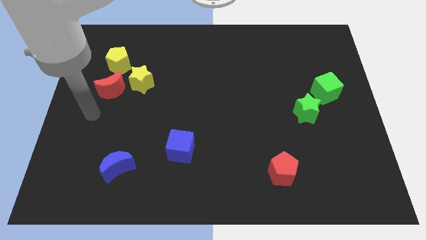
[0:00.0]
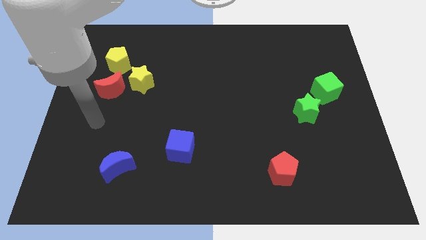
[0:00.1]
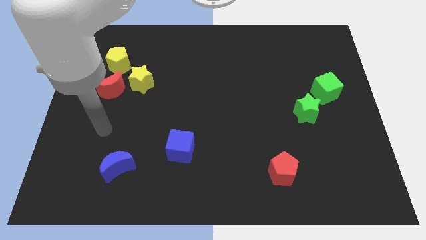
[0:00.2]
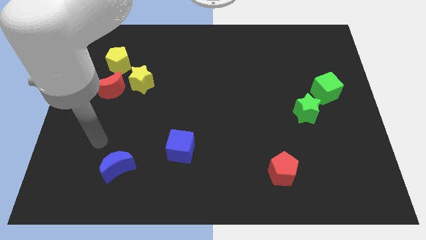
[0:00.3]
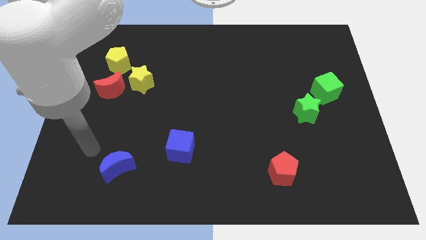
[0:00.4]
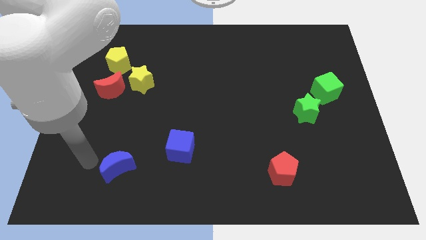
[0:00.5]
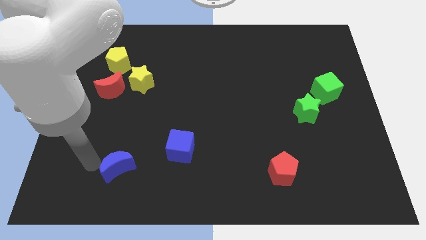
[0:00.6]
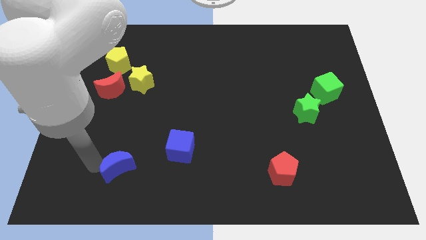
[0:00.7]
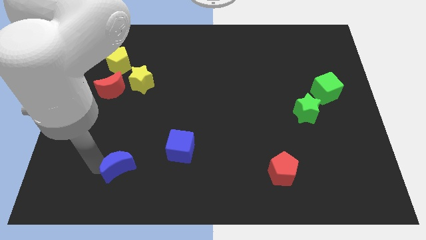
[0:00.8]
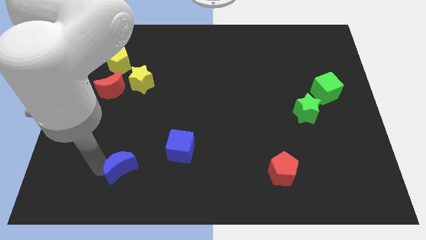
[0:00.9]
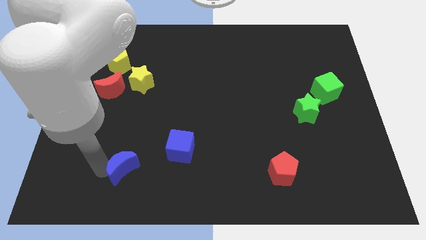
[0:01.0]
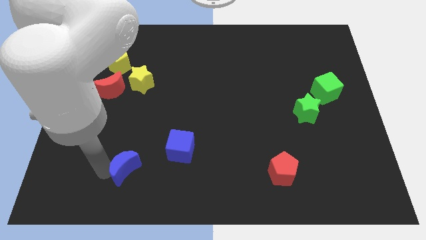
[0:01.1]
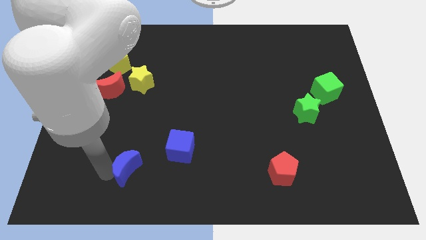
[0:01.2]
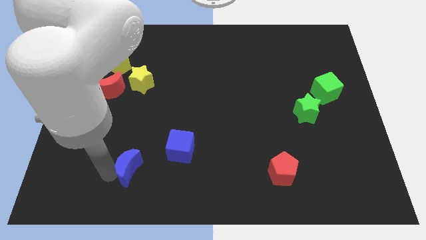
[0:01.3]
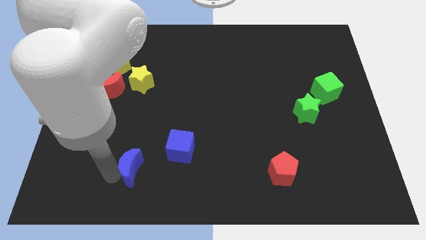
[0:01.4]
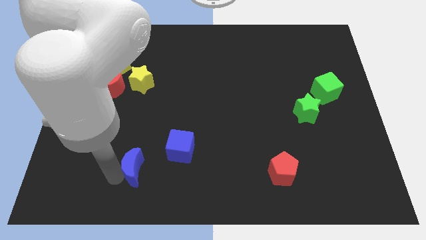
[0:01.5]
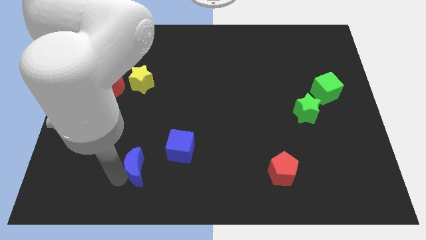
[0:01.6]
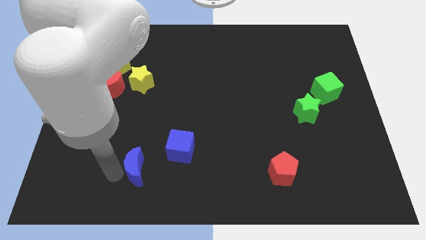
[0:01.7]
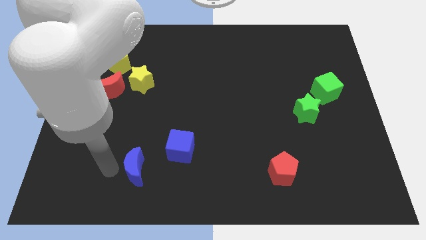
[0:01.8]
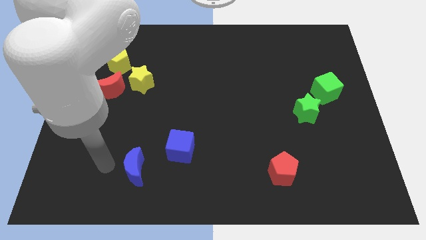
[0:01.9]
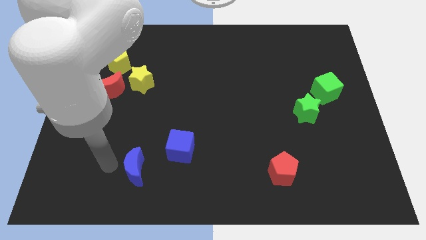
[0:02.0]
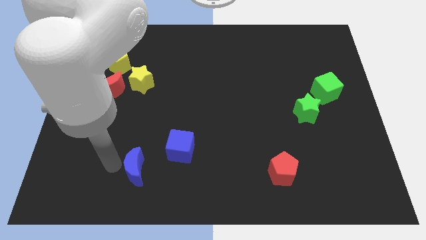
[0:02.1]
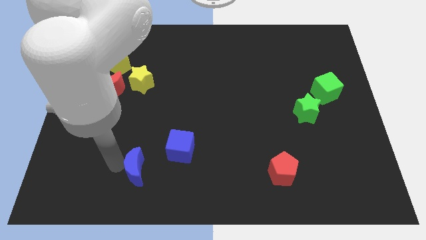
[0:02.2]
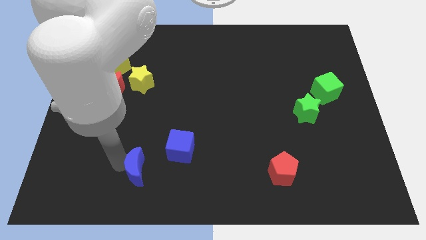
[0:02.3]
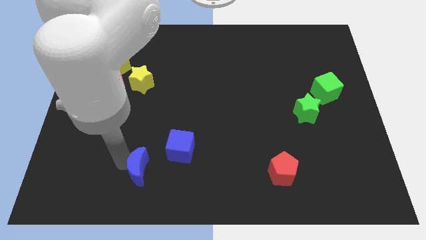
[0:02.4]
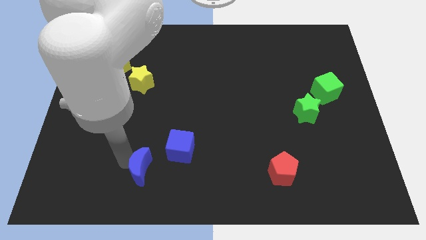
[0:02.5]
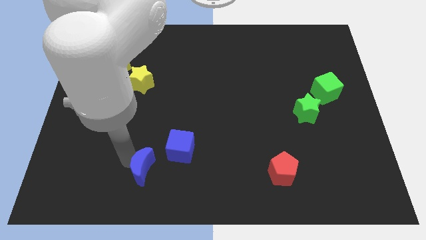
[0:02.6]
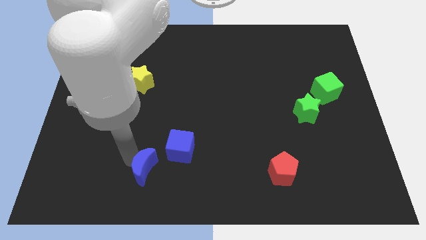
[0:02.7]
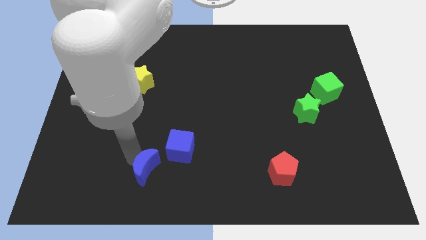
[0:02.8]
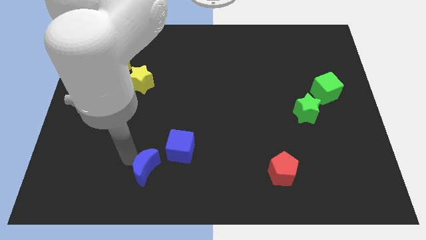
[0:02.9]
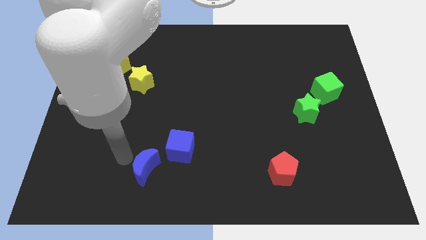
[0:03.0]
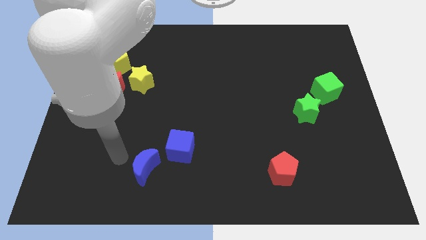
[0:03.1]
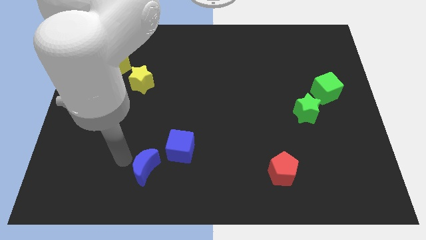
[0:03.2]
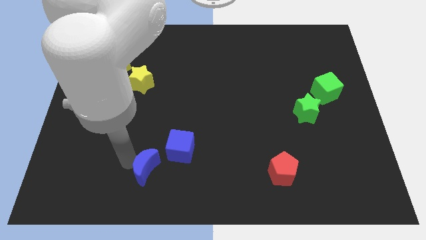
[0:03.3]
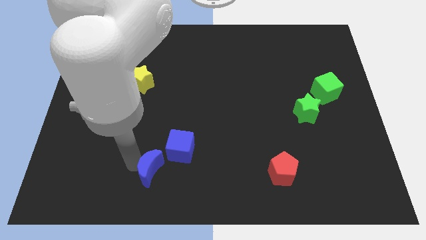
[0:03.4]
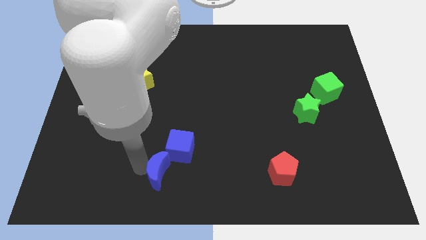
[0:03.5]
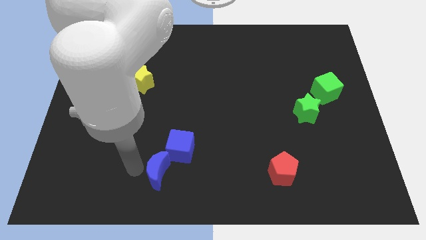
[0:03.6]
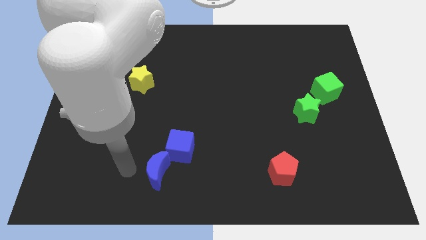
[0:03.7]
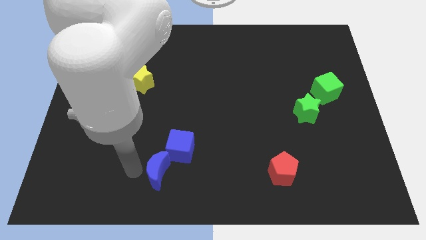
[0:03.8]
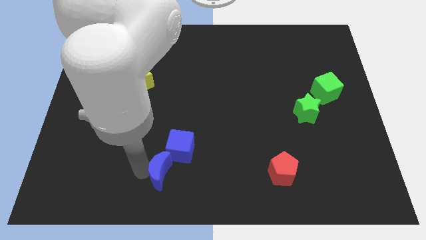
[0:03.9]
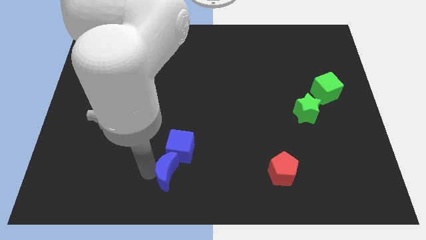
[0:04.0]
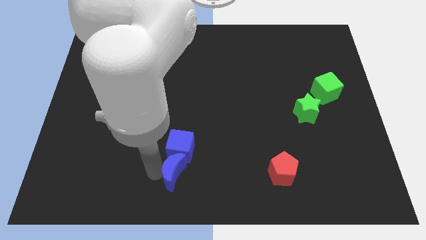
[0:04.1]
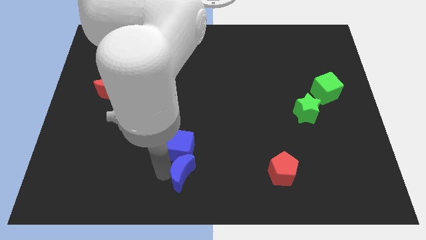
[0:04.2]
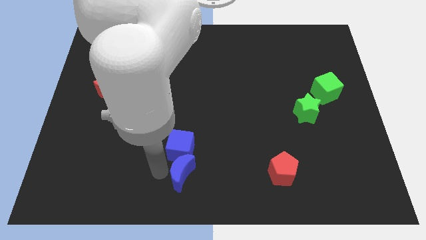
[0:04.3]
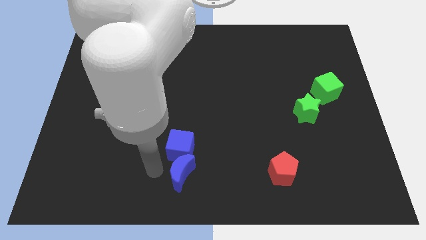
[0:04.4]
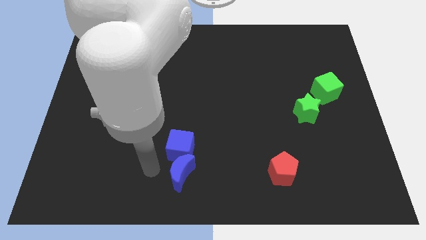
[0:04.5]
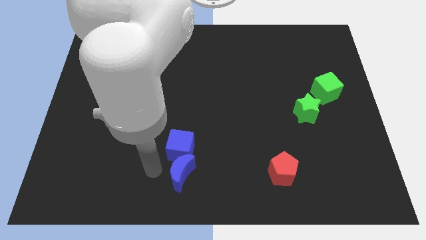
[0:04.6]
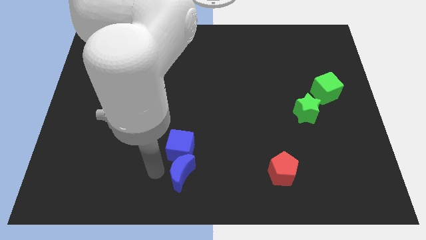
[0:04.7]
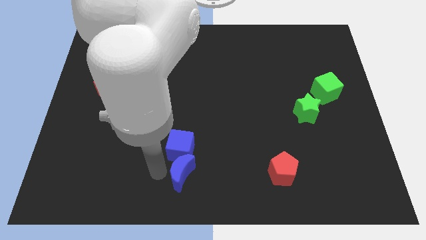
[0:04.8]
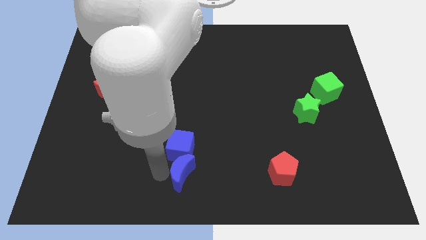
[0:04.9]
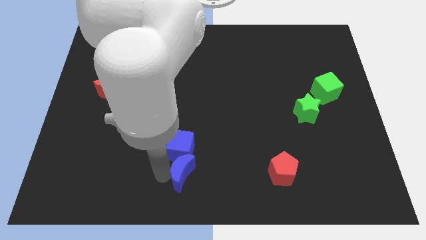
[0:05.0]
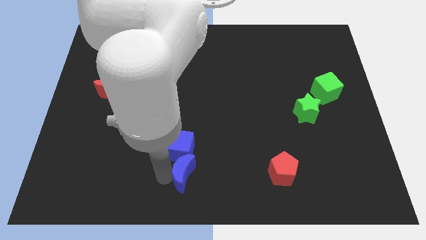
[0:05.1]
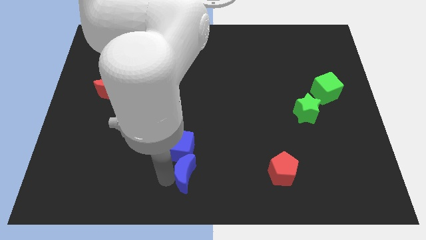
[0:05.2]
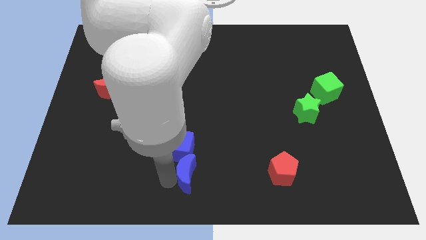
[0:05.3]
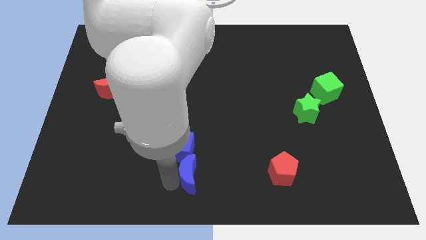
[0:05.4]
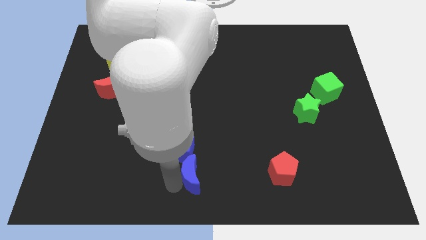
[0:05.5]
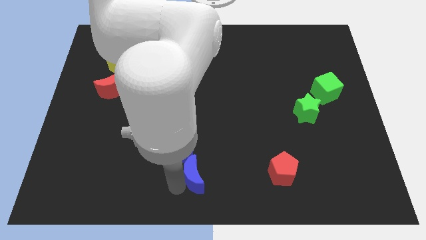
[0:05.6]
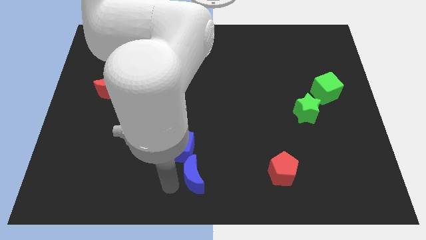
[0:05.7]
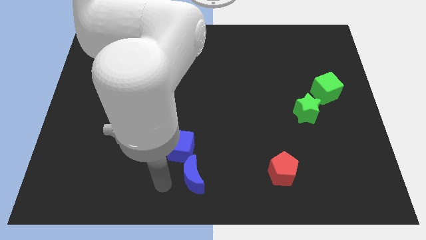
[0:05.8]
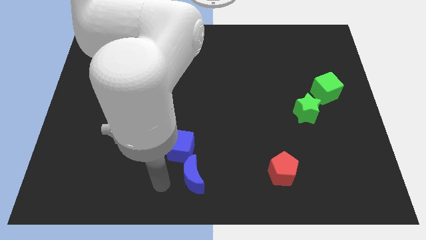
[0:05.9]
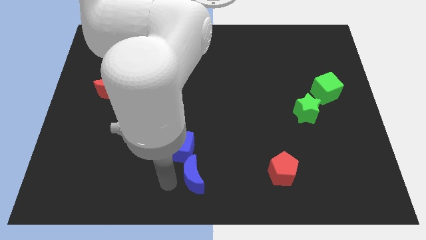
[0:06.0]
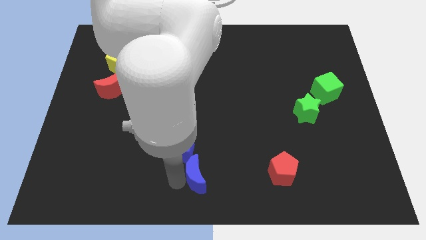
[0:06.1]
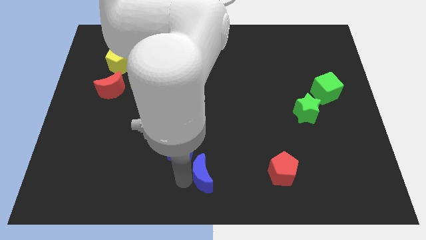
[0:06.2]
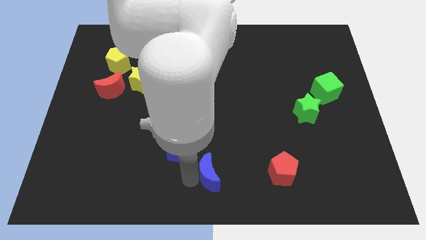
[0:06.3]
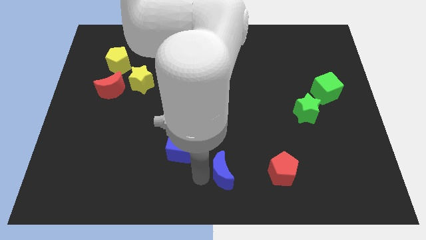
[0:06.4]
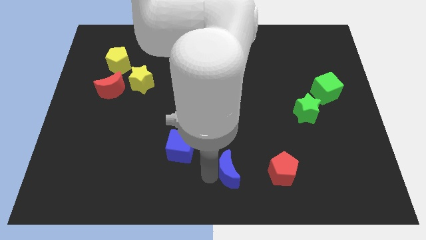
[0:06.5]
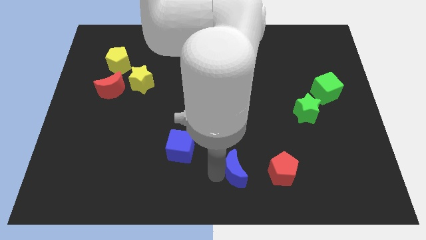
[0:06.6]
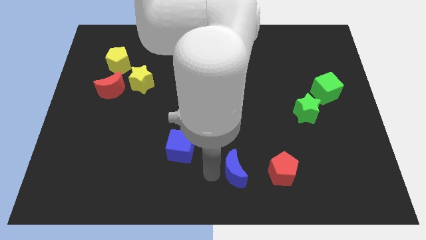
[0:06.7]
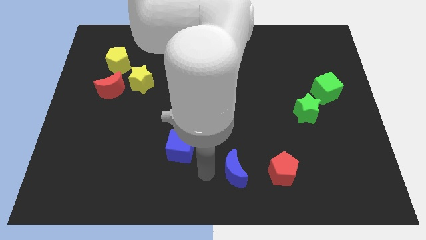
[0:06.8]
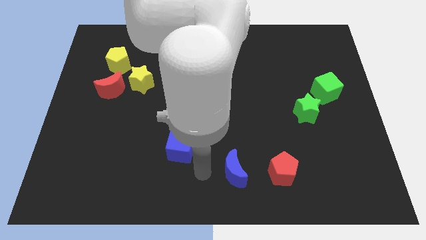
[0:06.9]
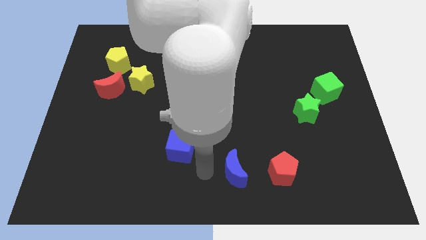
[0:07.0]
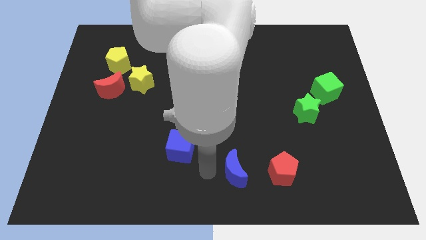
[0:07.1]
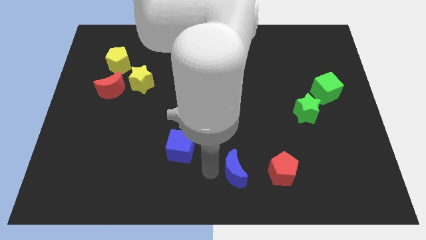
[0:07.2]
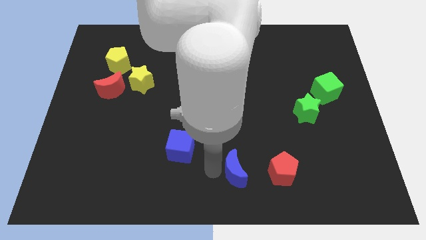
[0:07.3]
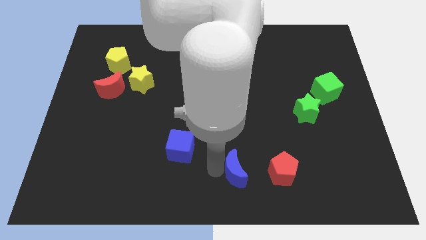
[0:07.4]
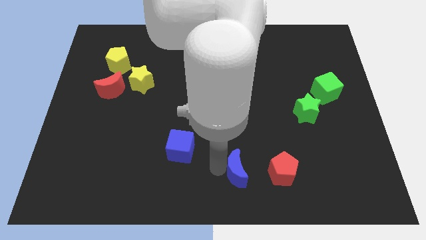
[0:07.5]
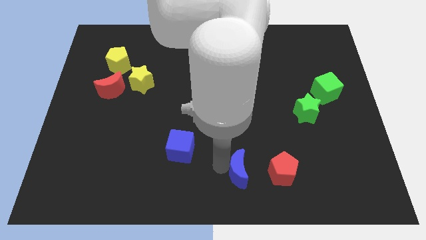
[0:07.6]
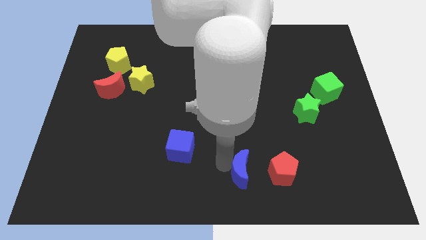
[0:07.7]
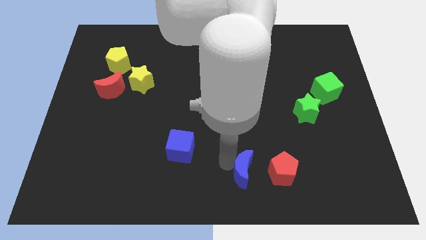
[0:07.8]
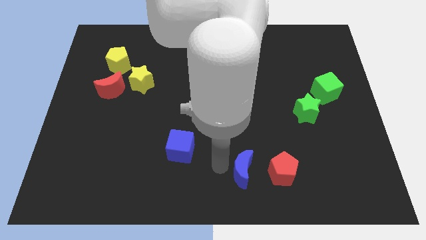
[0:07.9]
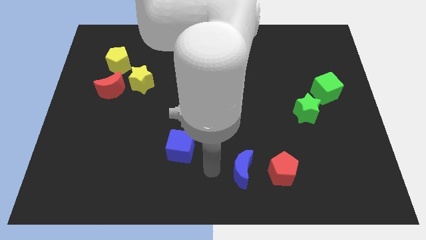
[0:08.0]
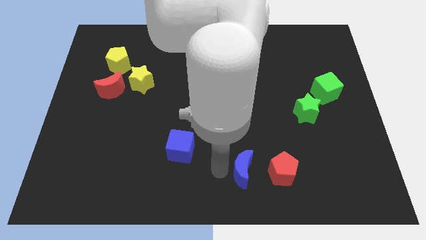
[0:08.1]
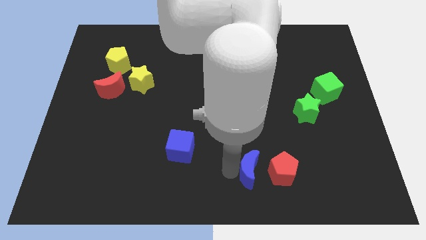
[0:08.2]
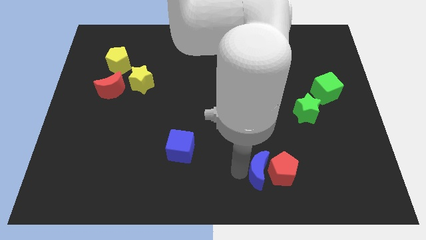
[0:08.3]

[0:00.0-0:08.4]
push the blue moon to the red pentagon
